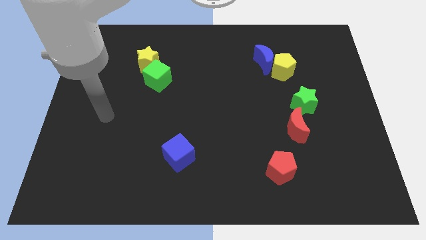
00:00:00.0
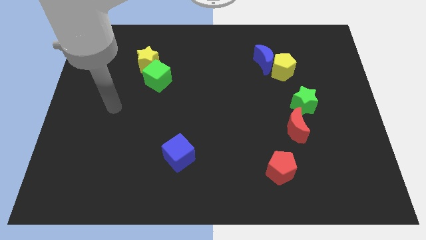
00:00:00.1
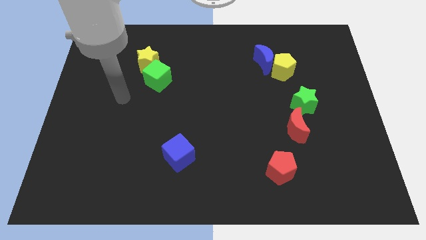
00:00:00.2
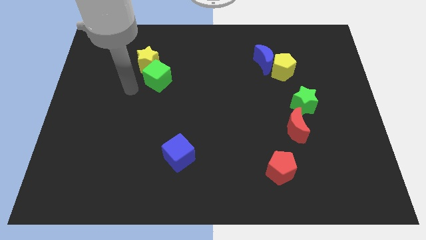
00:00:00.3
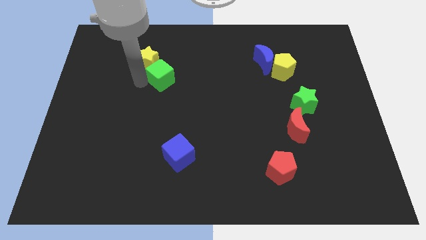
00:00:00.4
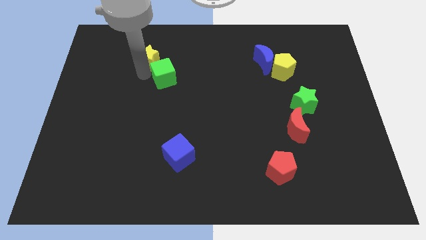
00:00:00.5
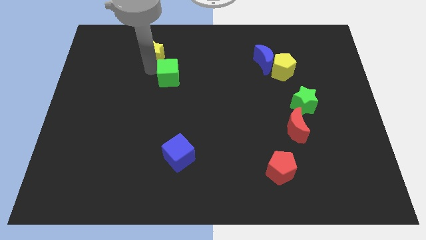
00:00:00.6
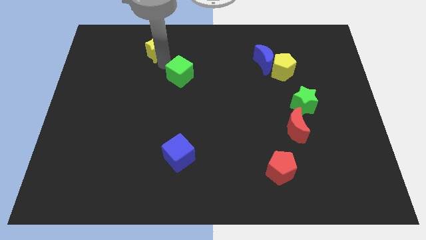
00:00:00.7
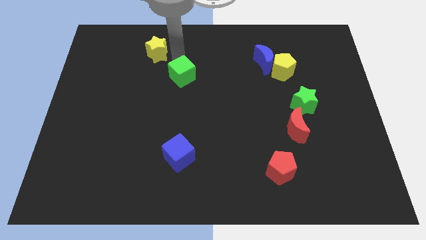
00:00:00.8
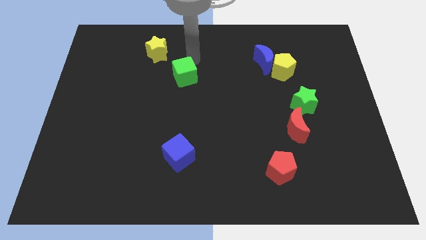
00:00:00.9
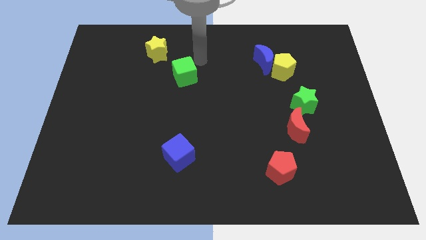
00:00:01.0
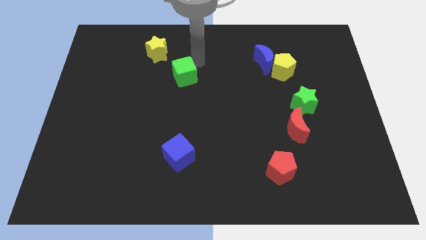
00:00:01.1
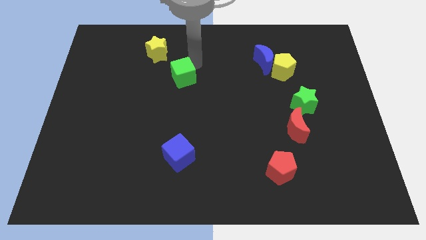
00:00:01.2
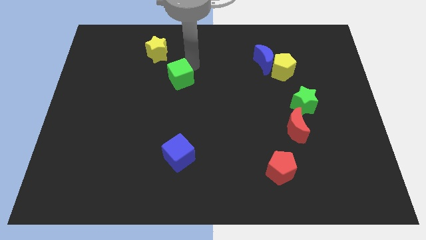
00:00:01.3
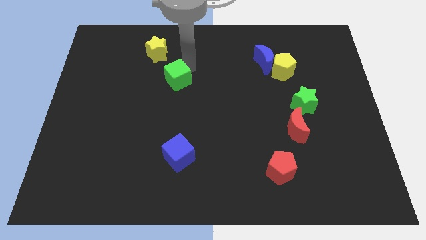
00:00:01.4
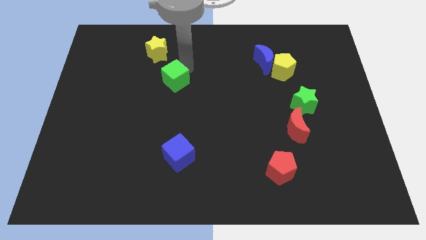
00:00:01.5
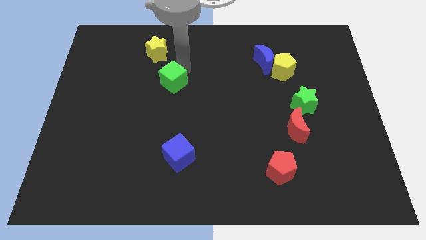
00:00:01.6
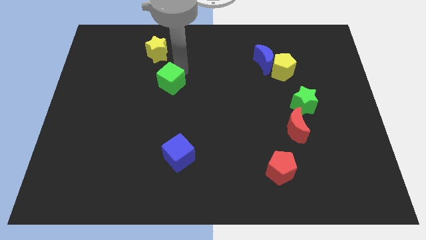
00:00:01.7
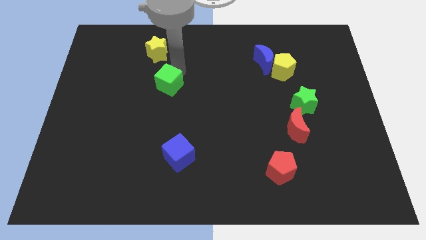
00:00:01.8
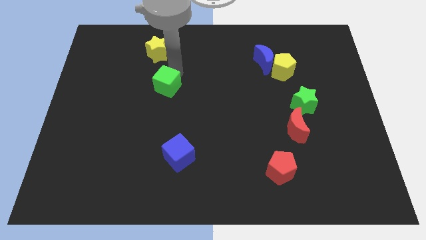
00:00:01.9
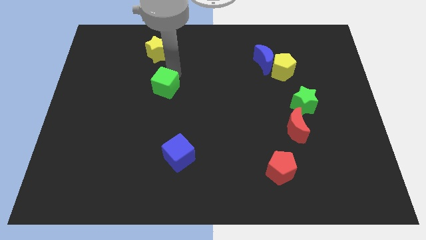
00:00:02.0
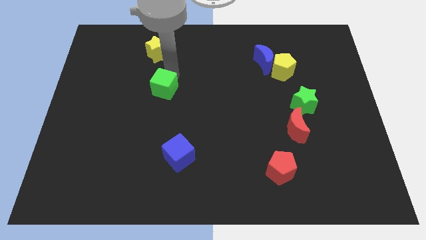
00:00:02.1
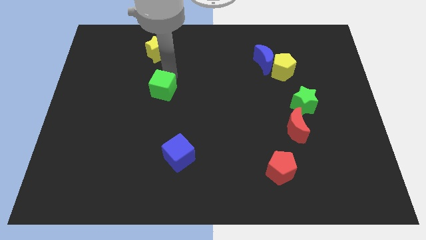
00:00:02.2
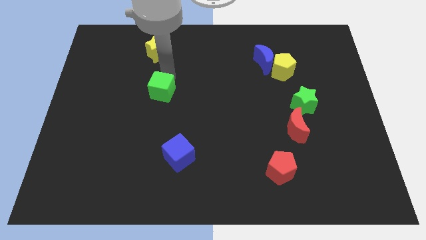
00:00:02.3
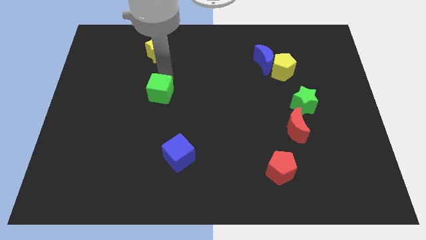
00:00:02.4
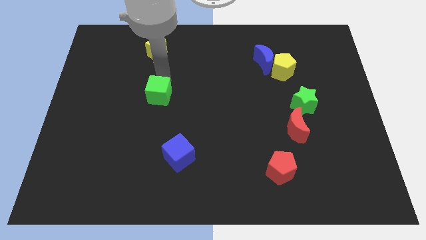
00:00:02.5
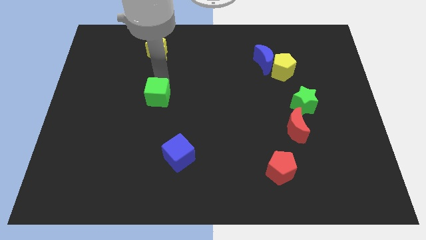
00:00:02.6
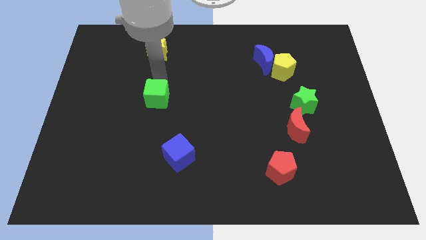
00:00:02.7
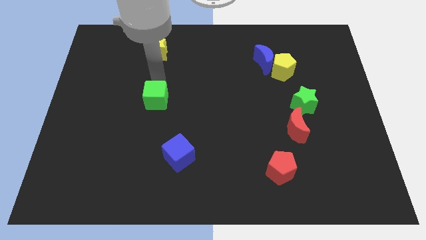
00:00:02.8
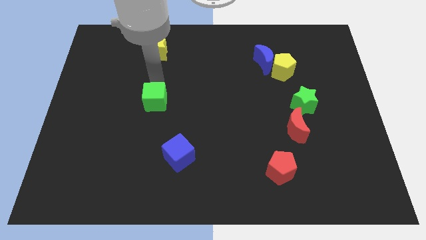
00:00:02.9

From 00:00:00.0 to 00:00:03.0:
slightly push the green cube downwards

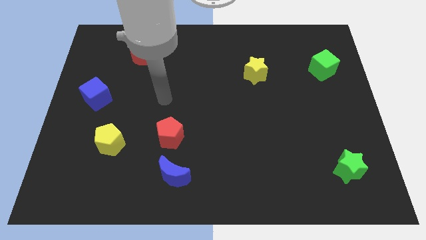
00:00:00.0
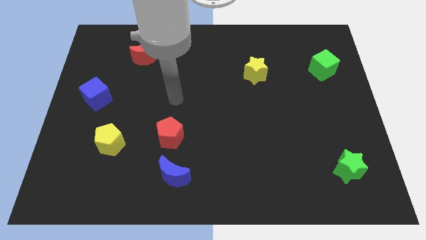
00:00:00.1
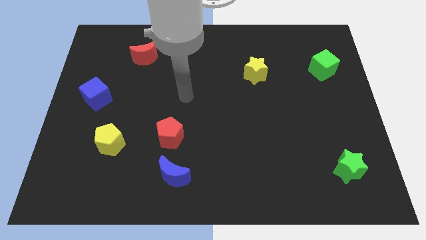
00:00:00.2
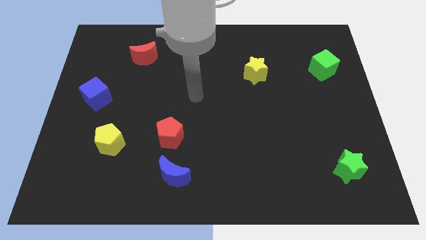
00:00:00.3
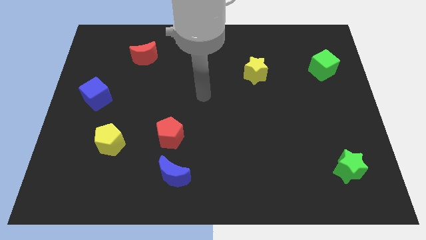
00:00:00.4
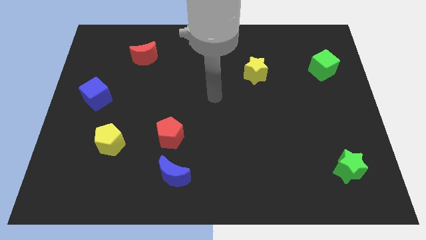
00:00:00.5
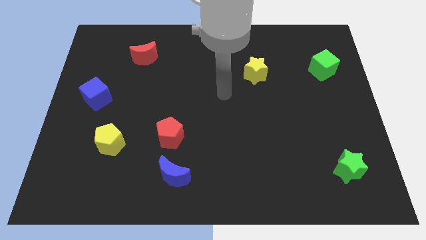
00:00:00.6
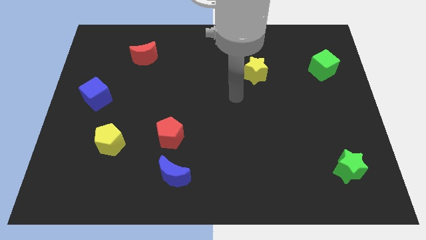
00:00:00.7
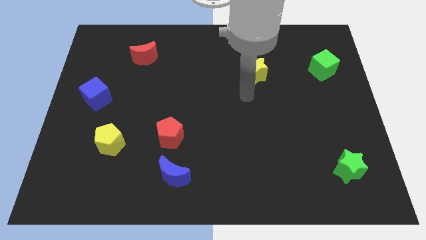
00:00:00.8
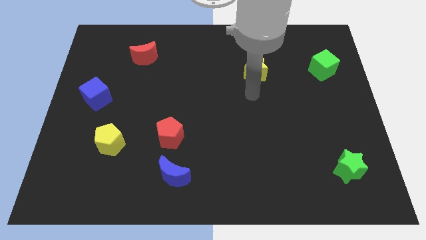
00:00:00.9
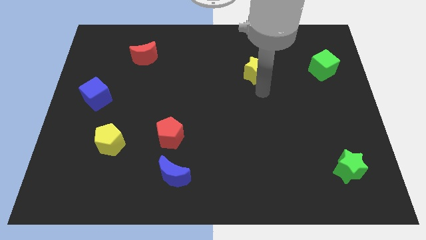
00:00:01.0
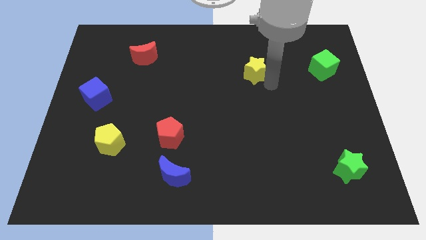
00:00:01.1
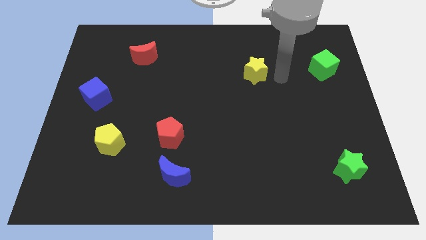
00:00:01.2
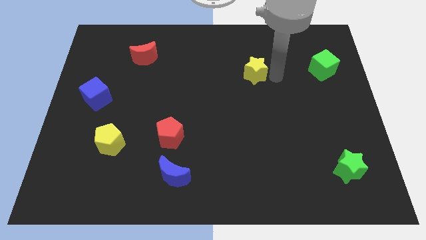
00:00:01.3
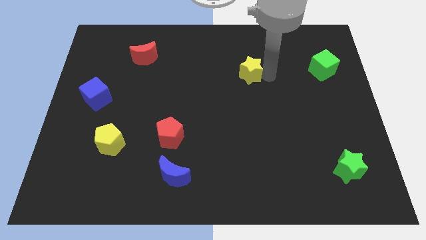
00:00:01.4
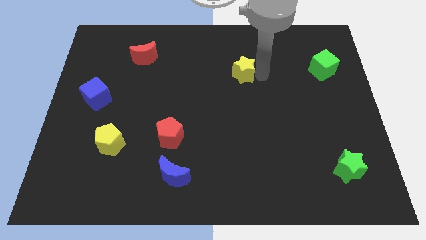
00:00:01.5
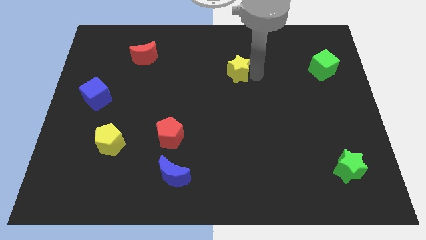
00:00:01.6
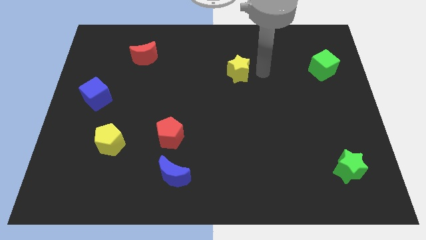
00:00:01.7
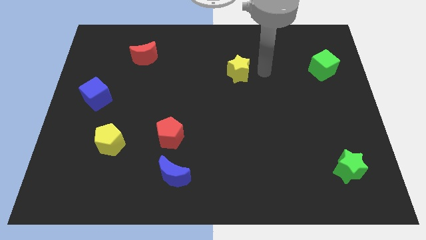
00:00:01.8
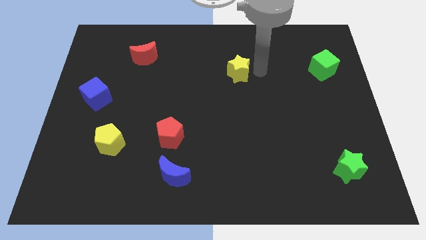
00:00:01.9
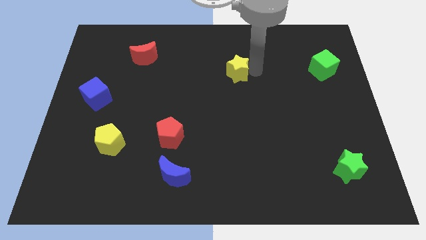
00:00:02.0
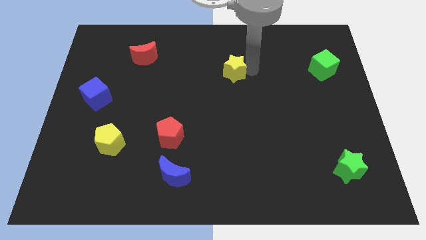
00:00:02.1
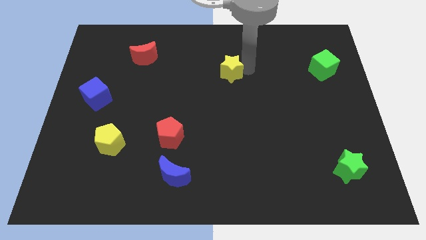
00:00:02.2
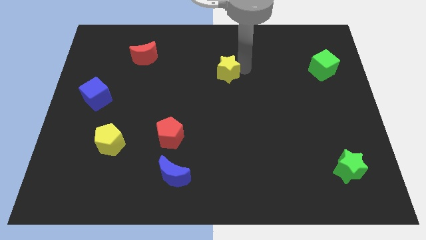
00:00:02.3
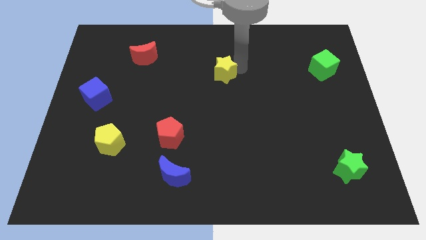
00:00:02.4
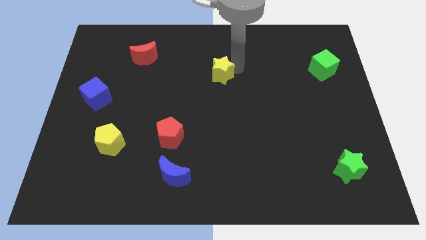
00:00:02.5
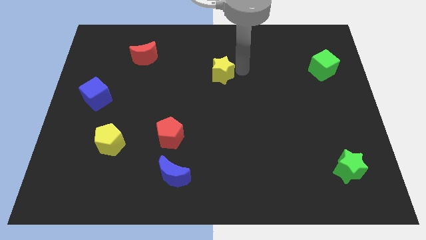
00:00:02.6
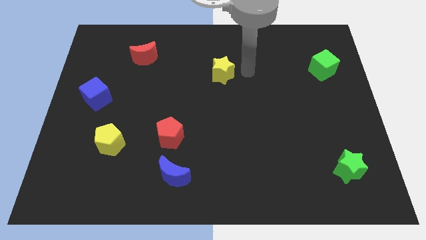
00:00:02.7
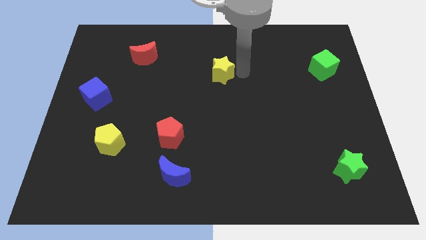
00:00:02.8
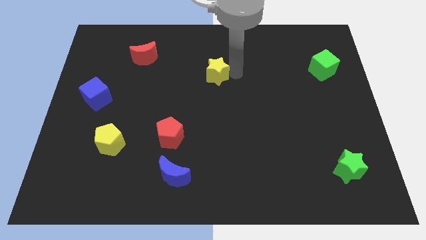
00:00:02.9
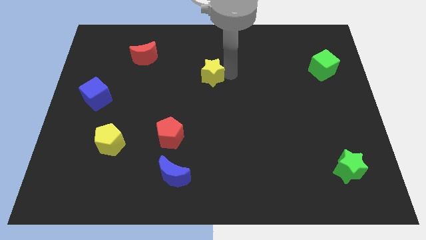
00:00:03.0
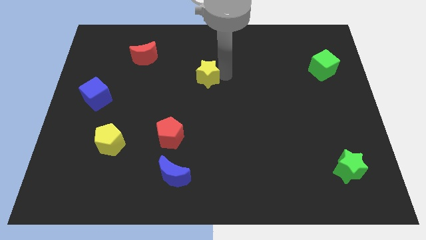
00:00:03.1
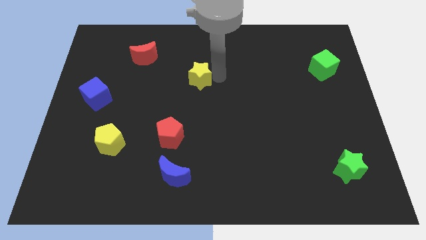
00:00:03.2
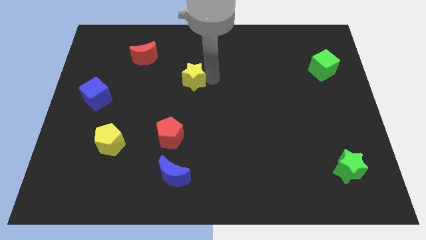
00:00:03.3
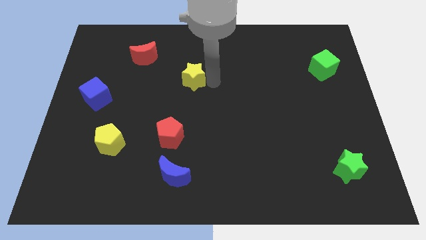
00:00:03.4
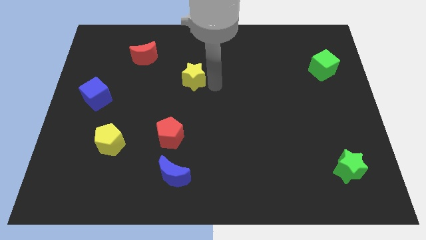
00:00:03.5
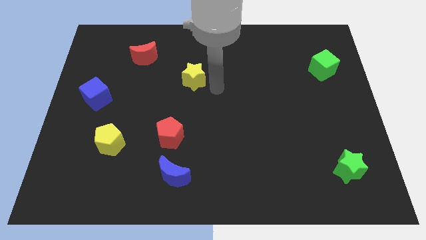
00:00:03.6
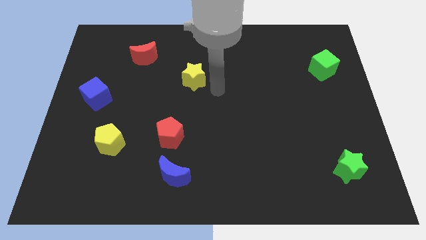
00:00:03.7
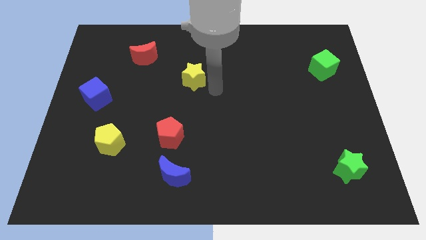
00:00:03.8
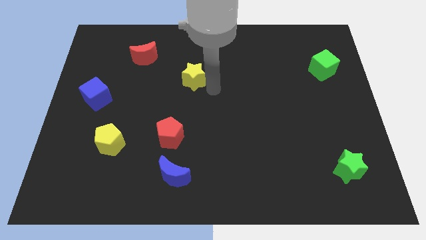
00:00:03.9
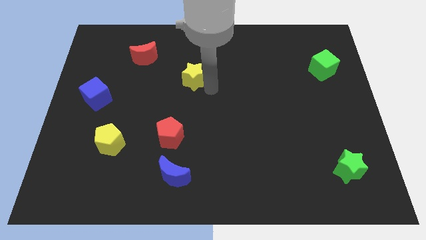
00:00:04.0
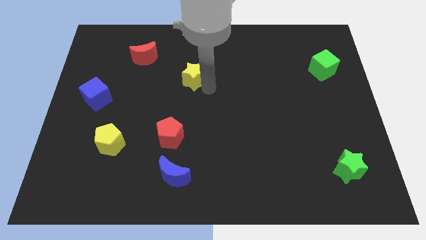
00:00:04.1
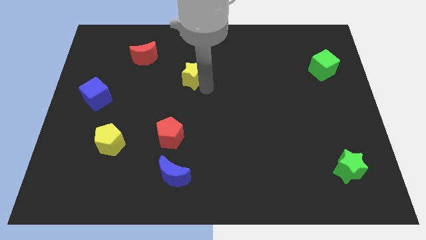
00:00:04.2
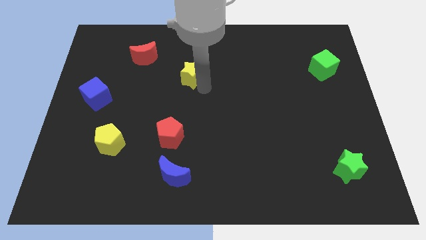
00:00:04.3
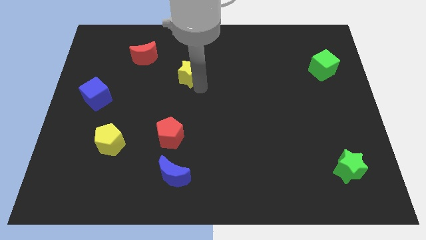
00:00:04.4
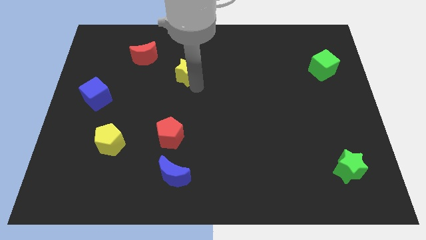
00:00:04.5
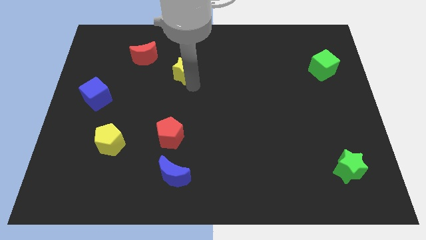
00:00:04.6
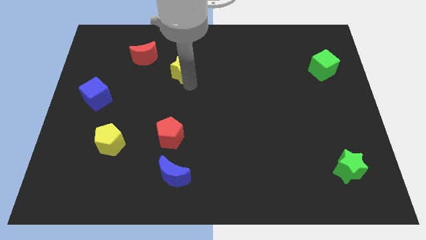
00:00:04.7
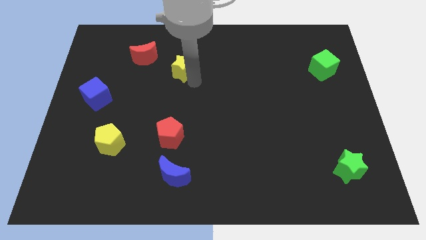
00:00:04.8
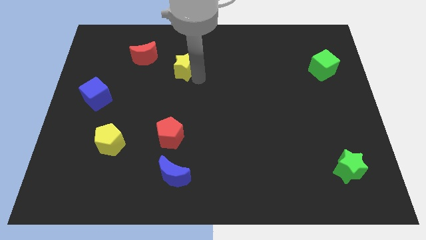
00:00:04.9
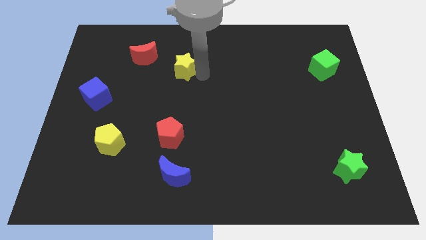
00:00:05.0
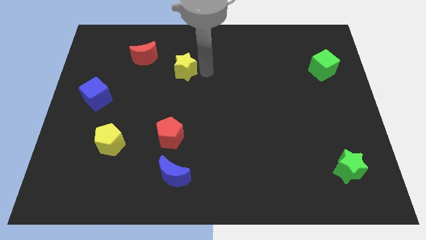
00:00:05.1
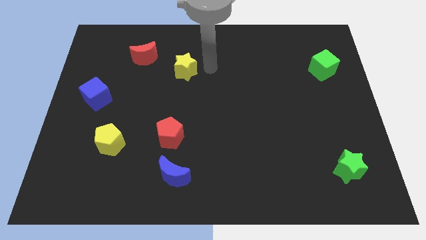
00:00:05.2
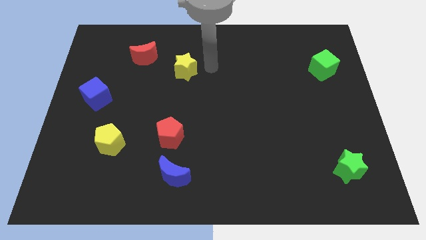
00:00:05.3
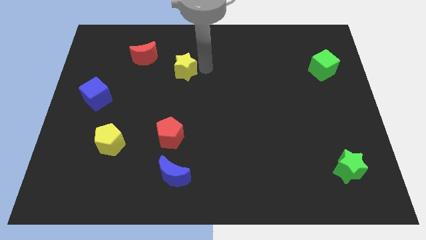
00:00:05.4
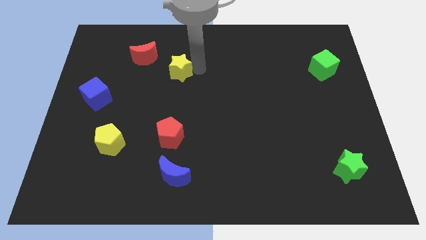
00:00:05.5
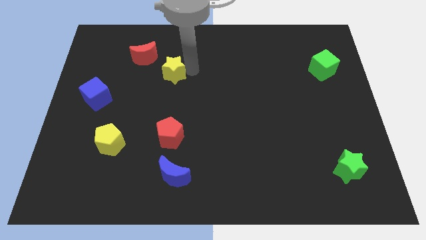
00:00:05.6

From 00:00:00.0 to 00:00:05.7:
move the yellow star to the left
